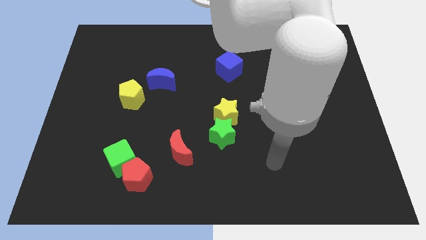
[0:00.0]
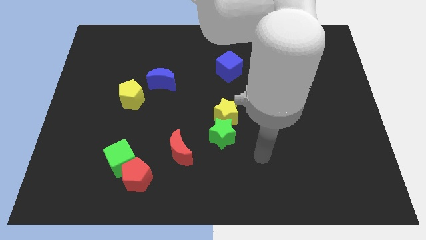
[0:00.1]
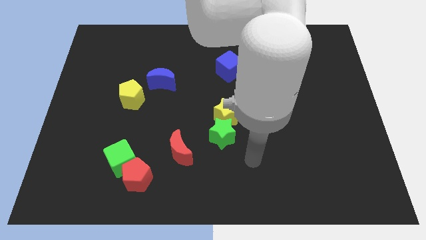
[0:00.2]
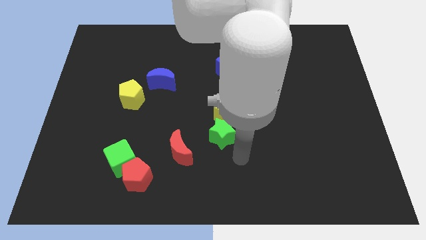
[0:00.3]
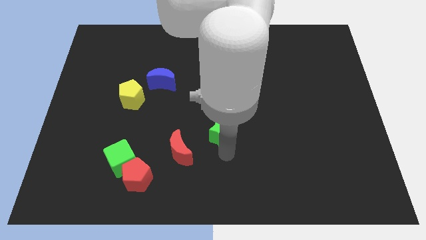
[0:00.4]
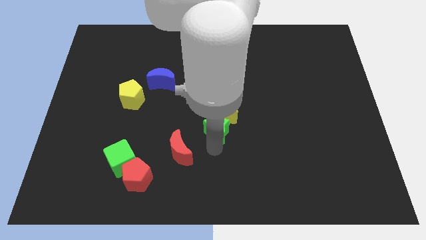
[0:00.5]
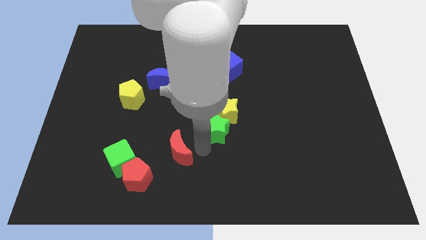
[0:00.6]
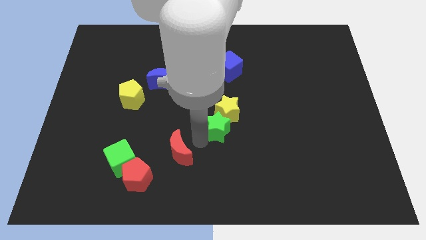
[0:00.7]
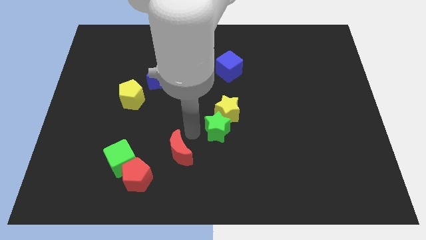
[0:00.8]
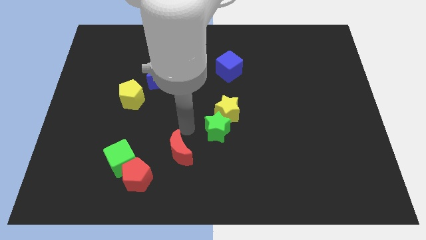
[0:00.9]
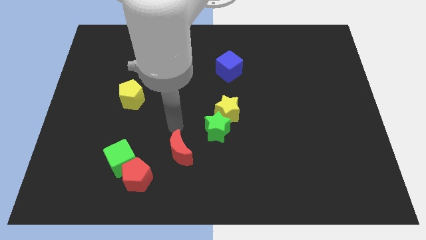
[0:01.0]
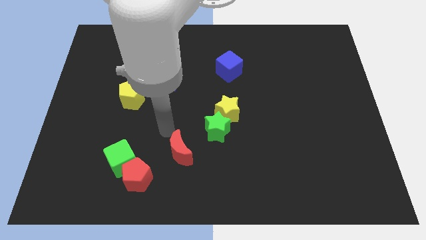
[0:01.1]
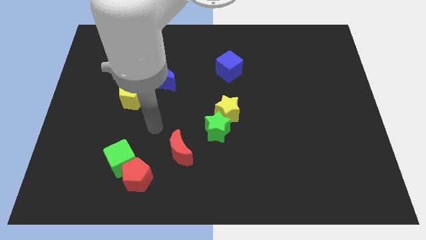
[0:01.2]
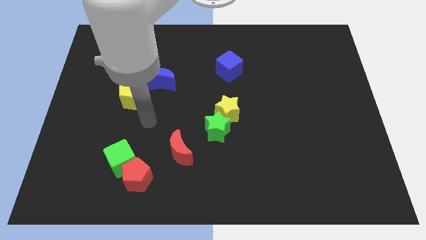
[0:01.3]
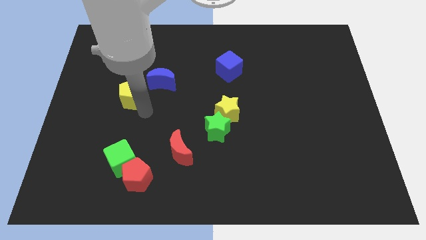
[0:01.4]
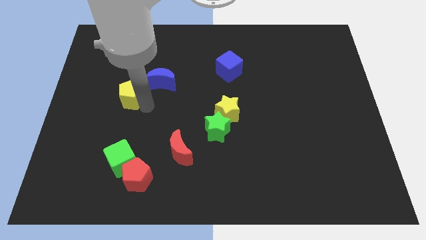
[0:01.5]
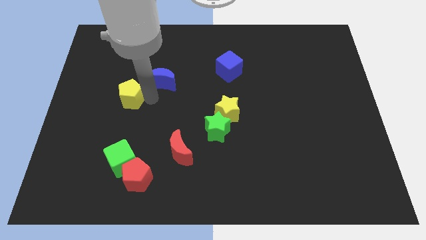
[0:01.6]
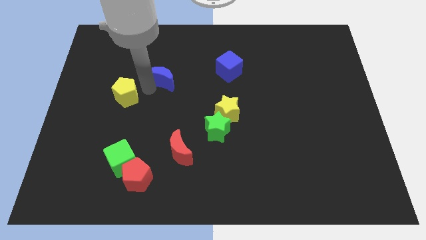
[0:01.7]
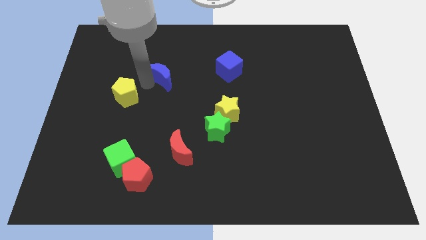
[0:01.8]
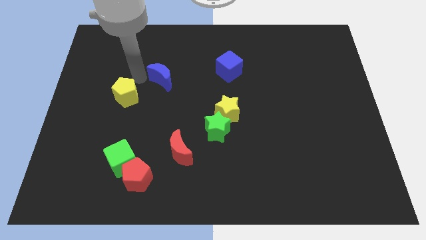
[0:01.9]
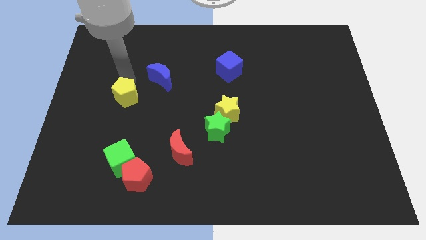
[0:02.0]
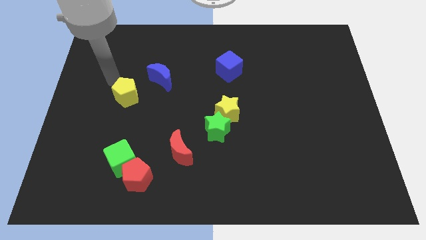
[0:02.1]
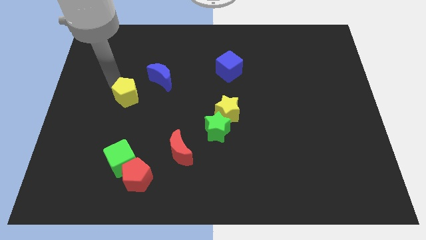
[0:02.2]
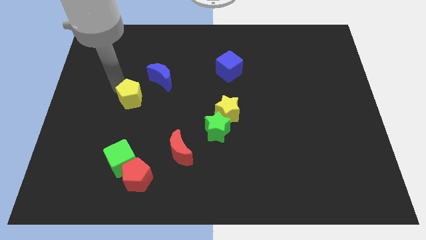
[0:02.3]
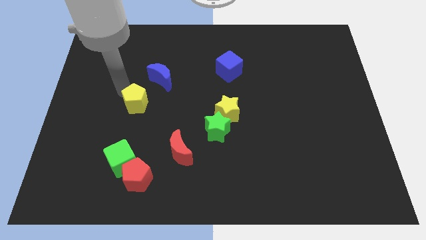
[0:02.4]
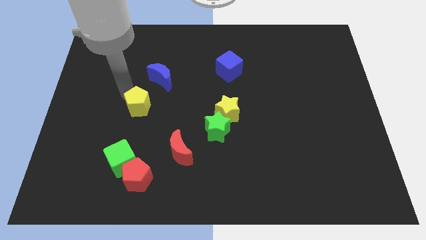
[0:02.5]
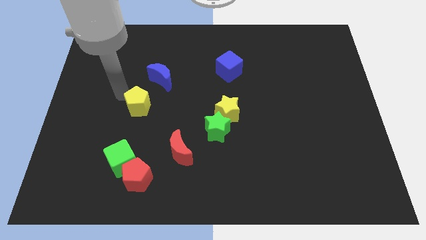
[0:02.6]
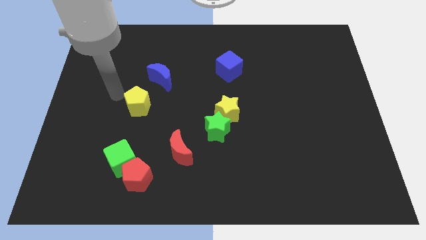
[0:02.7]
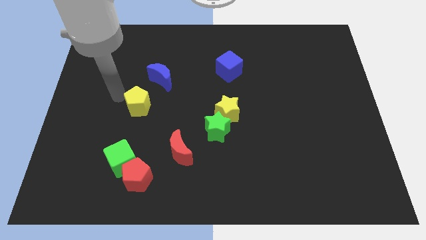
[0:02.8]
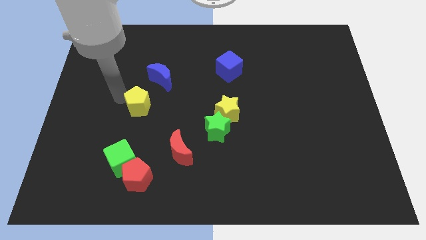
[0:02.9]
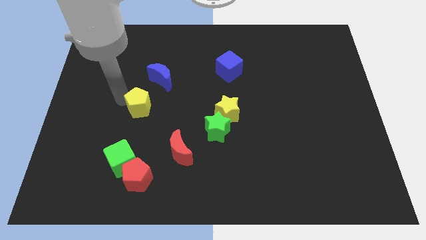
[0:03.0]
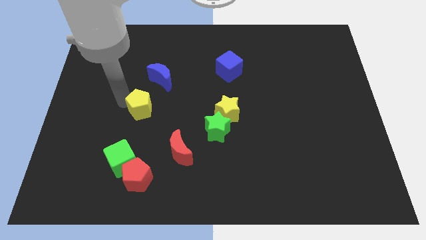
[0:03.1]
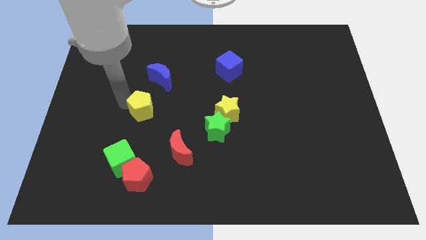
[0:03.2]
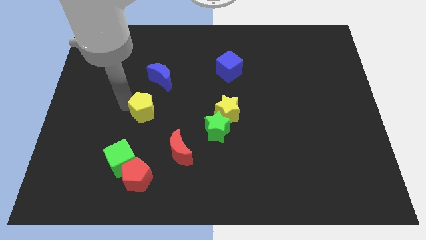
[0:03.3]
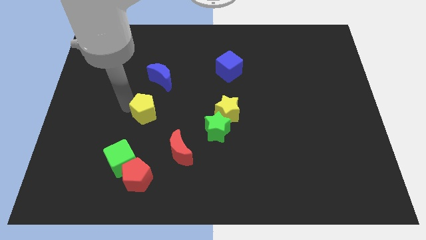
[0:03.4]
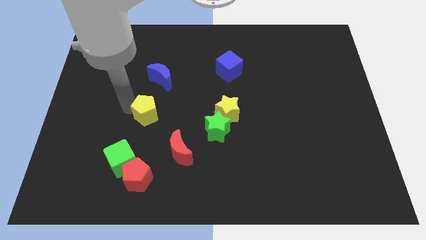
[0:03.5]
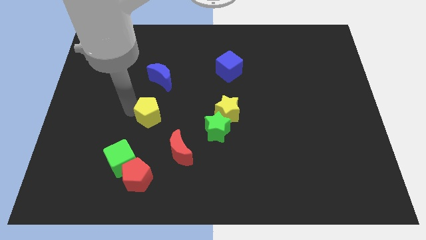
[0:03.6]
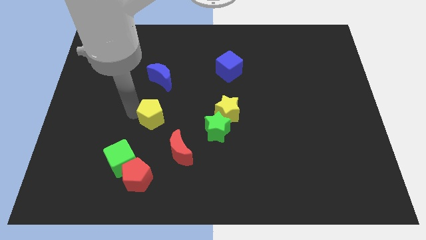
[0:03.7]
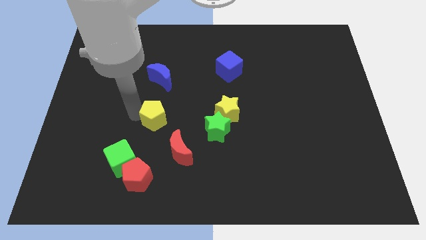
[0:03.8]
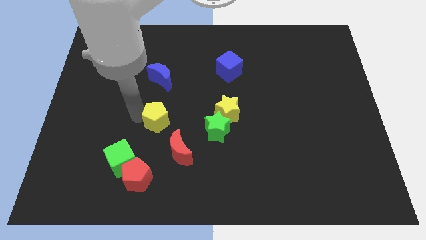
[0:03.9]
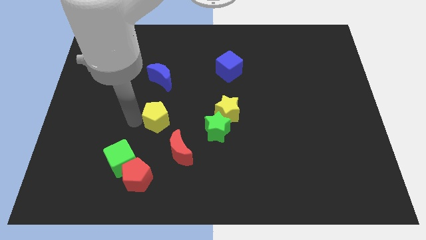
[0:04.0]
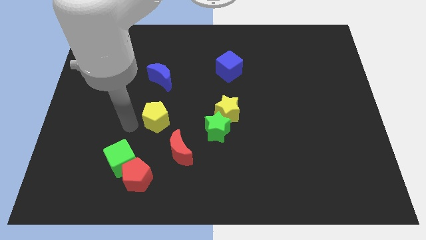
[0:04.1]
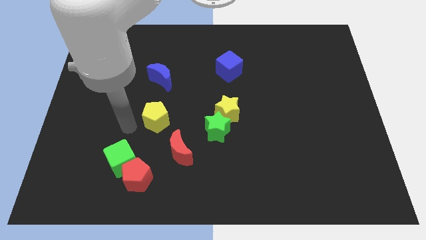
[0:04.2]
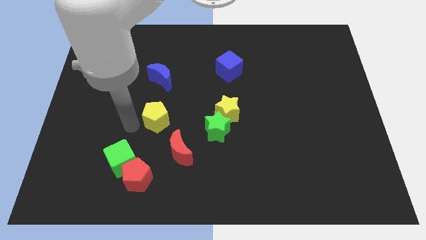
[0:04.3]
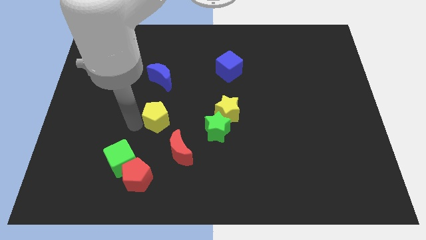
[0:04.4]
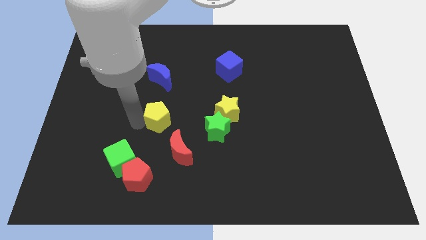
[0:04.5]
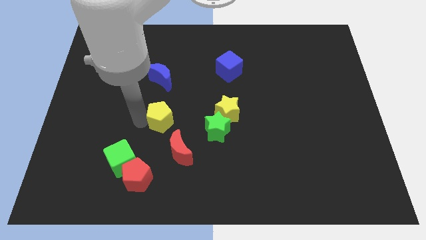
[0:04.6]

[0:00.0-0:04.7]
move the yellow pentagon above the red moon

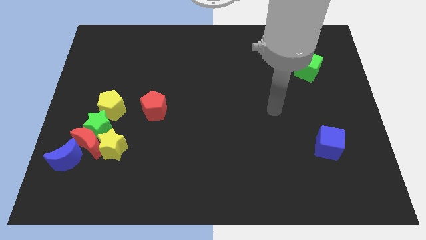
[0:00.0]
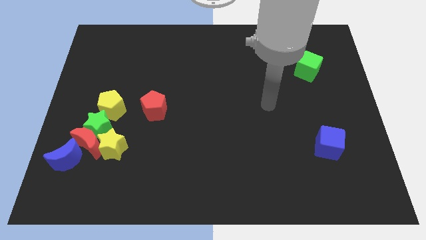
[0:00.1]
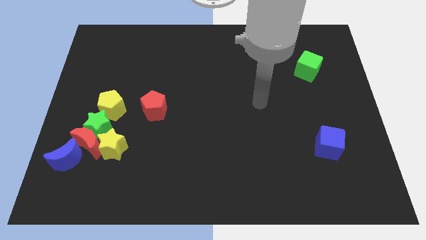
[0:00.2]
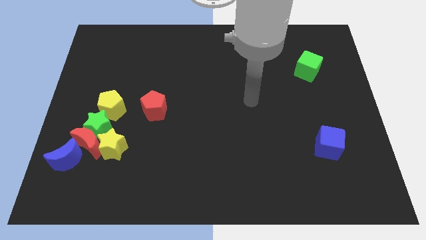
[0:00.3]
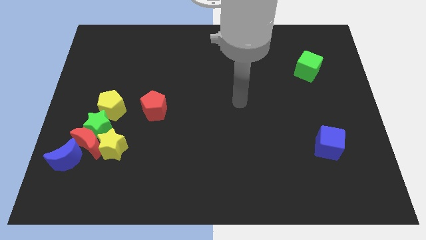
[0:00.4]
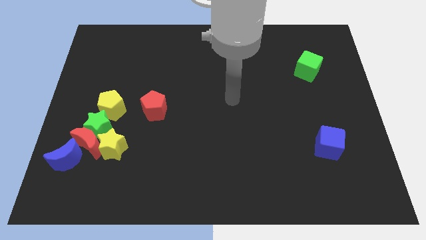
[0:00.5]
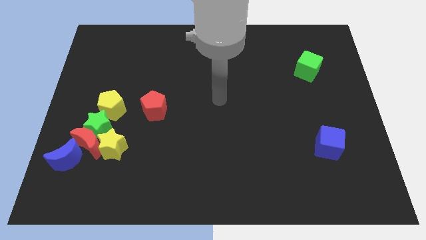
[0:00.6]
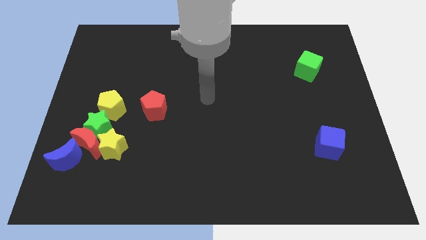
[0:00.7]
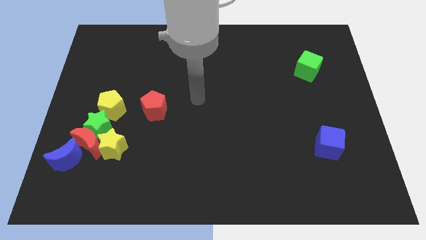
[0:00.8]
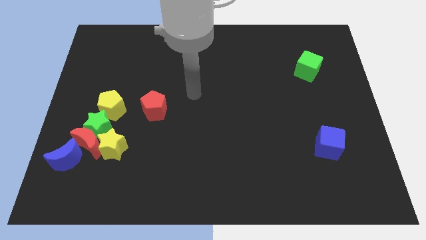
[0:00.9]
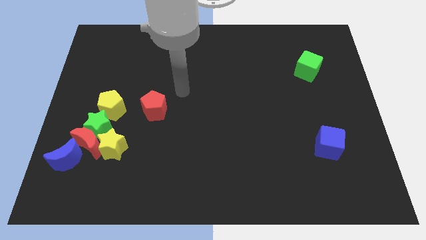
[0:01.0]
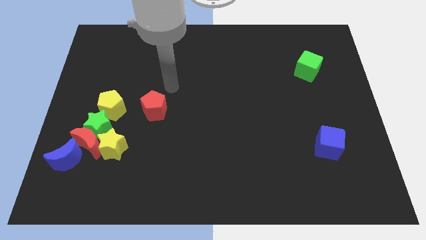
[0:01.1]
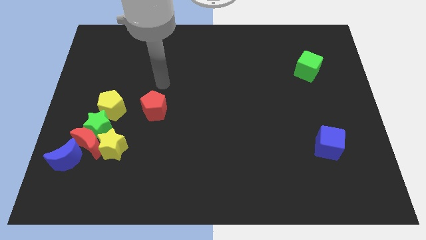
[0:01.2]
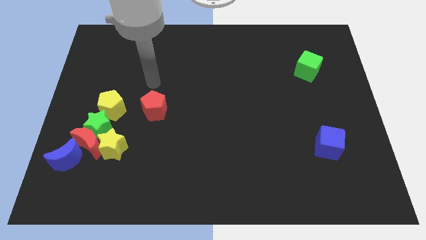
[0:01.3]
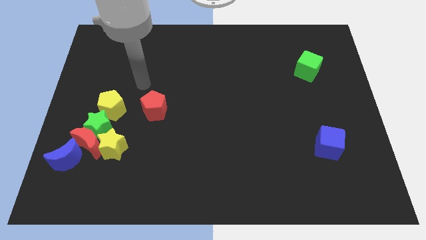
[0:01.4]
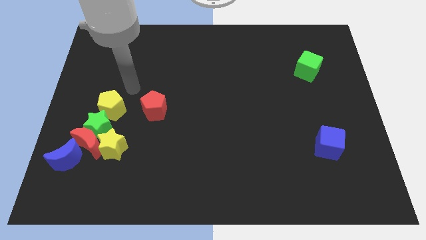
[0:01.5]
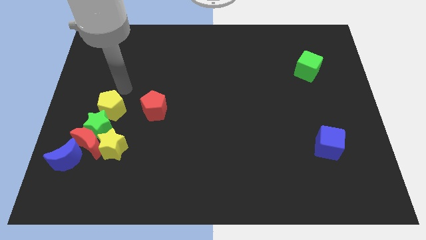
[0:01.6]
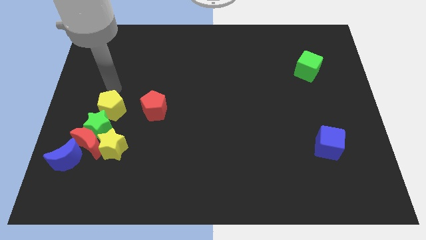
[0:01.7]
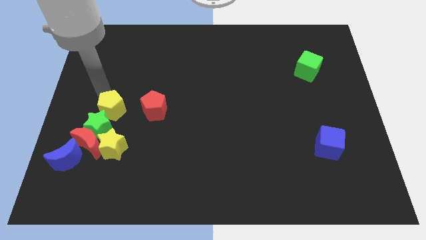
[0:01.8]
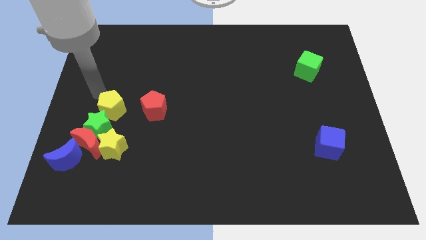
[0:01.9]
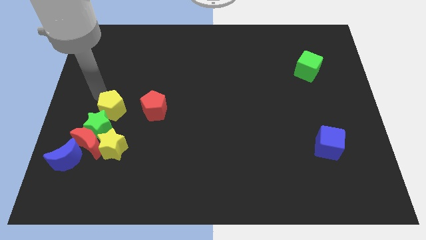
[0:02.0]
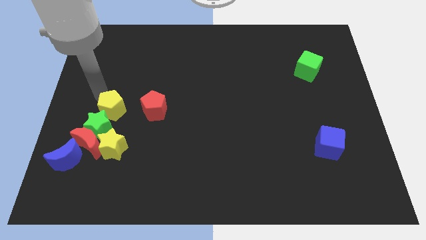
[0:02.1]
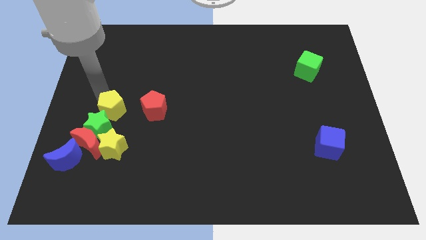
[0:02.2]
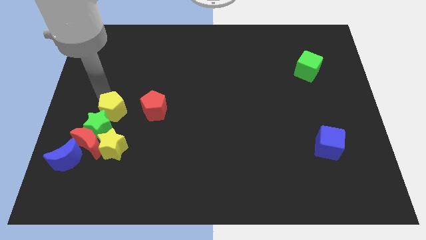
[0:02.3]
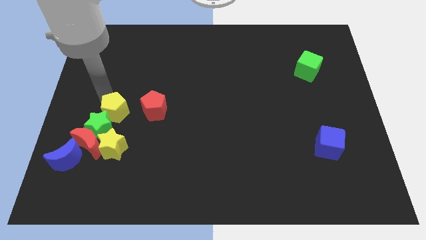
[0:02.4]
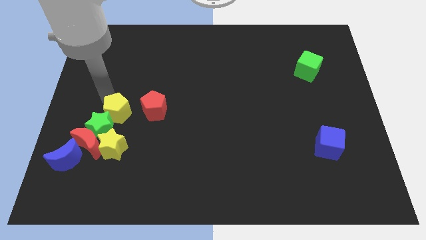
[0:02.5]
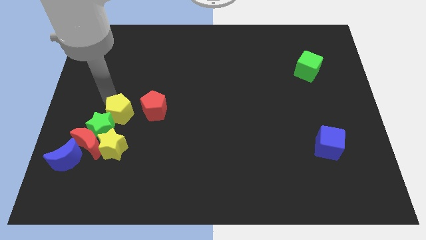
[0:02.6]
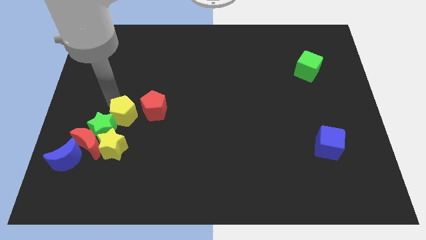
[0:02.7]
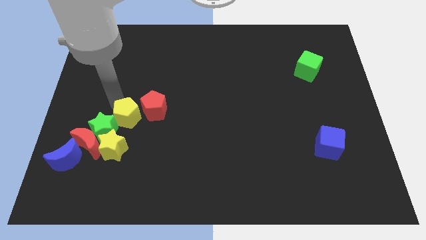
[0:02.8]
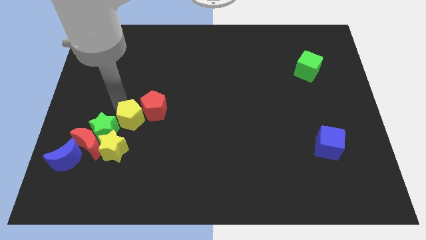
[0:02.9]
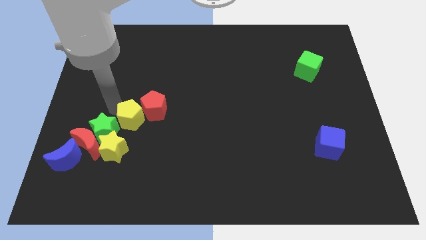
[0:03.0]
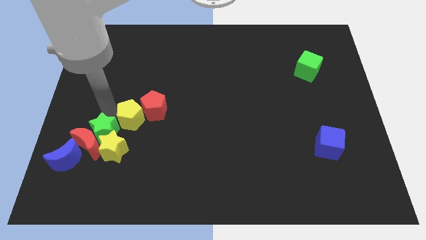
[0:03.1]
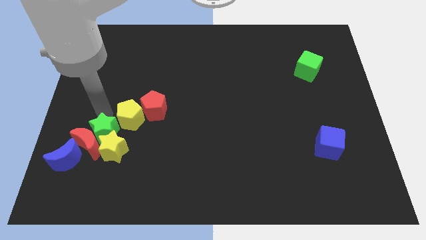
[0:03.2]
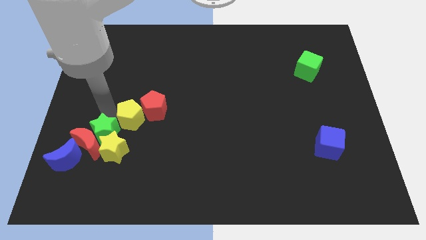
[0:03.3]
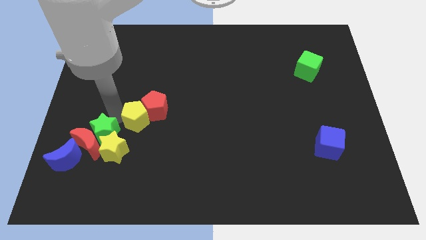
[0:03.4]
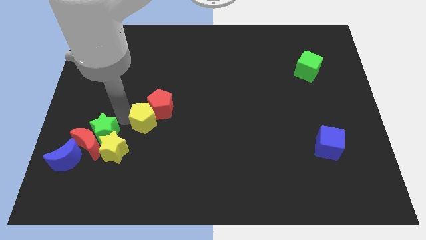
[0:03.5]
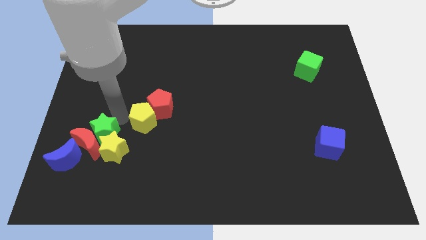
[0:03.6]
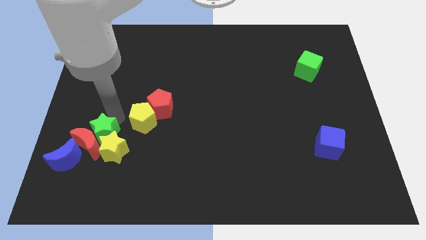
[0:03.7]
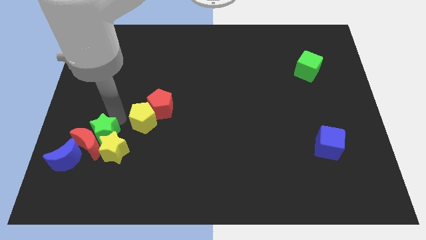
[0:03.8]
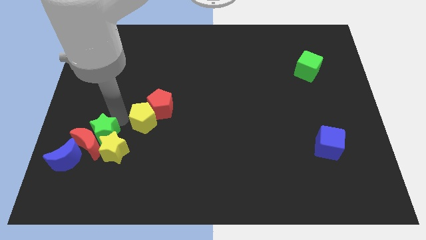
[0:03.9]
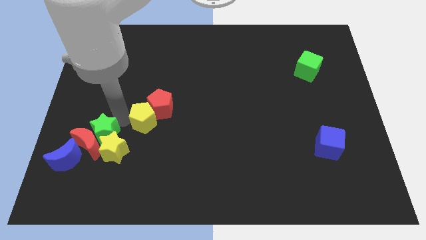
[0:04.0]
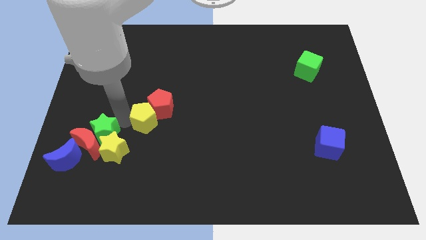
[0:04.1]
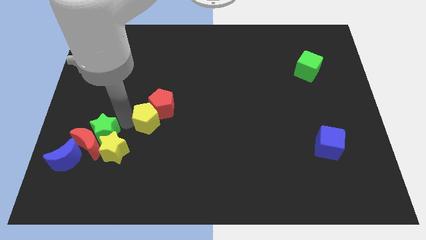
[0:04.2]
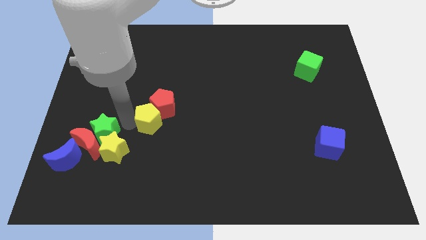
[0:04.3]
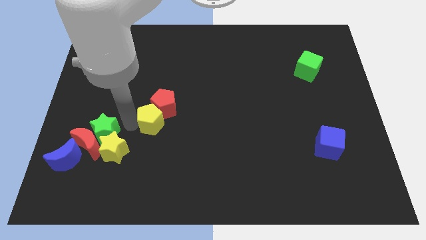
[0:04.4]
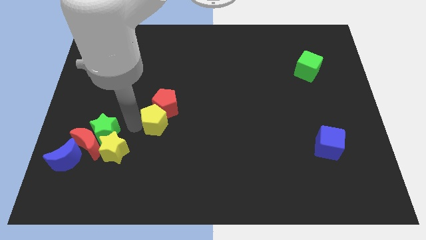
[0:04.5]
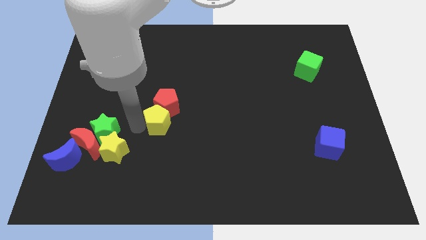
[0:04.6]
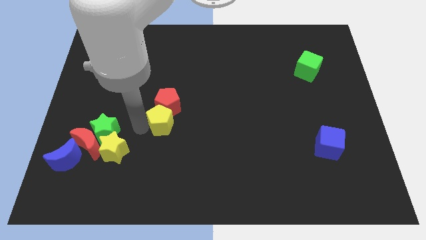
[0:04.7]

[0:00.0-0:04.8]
move the yellow pentagon to the bottom right of the red pentagon
